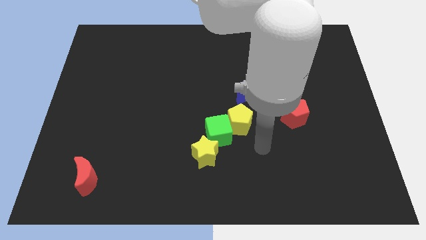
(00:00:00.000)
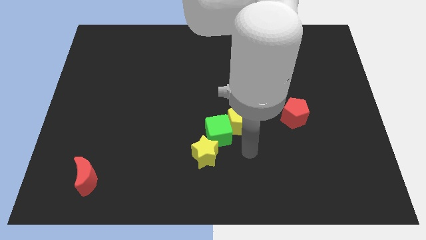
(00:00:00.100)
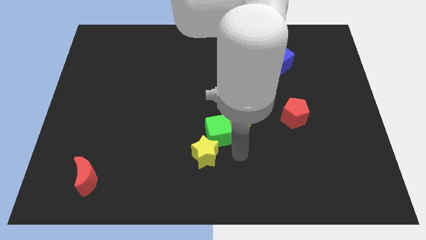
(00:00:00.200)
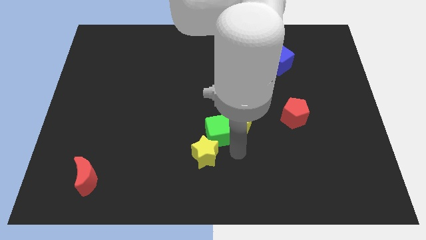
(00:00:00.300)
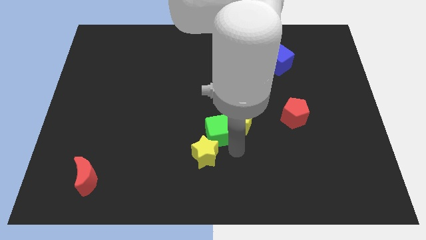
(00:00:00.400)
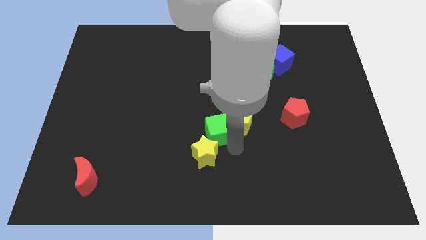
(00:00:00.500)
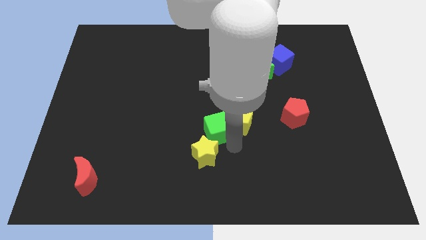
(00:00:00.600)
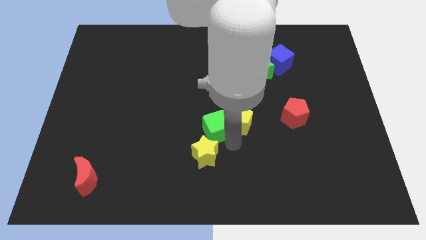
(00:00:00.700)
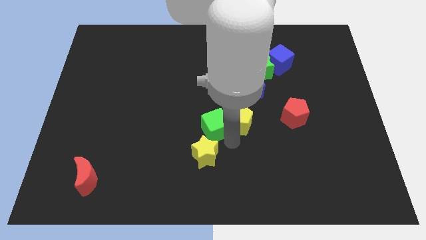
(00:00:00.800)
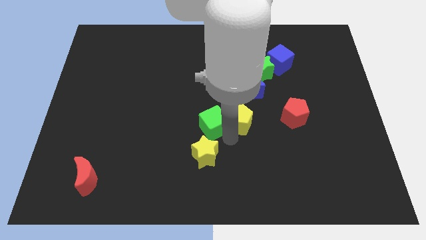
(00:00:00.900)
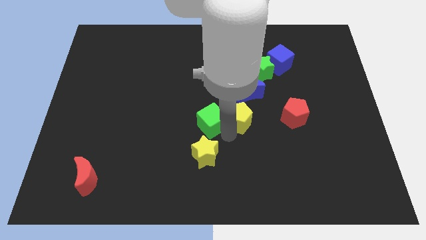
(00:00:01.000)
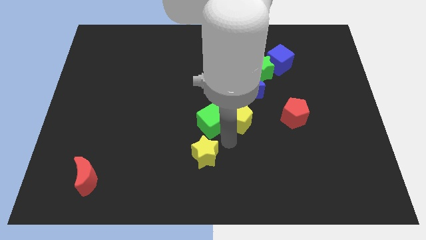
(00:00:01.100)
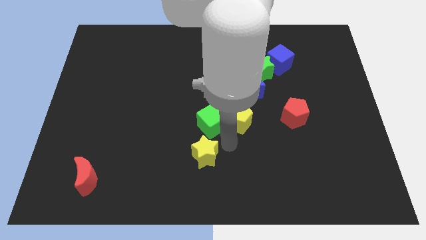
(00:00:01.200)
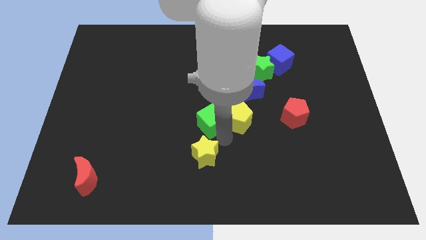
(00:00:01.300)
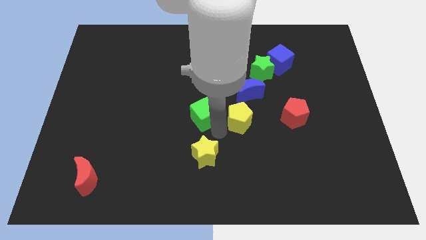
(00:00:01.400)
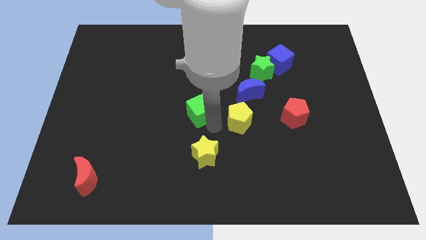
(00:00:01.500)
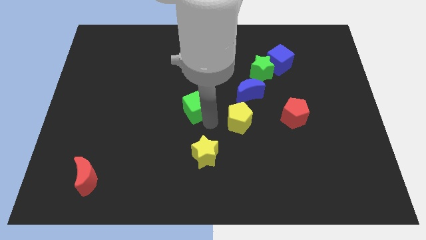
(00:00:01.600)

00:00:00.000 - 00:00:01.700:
move the green cube away from the yellow pentagon and yellow star

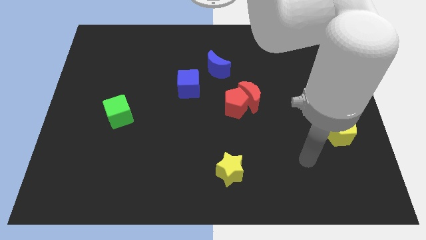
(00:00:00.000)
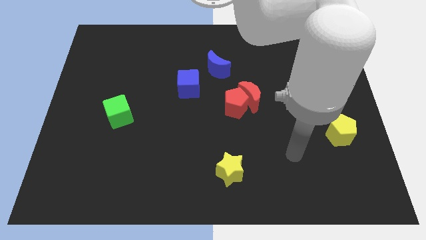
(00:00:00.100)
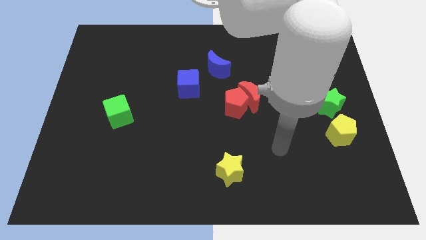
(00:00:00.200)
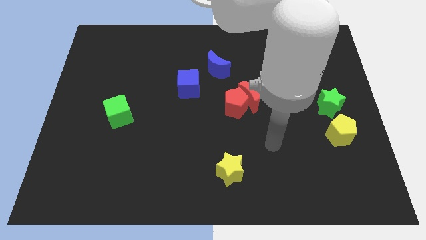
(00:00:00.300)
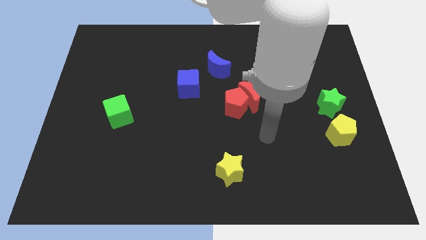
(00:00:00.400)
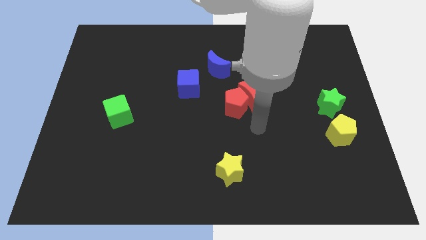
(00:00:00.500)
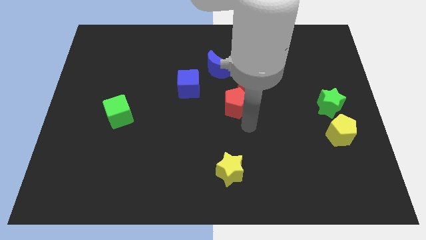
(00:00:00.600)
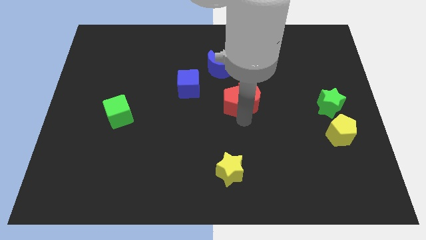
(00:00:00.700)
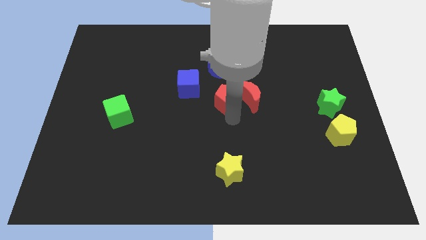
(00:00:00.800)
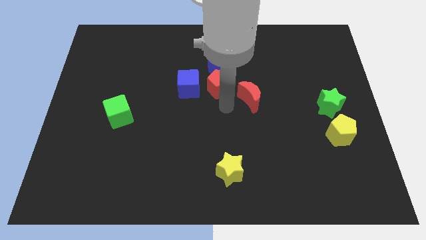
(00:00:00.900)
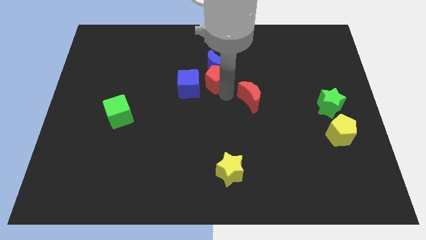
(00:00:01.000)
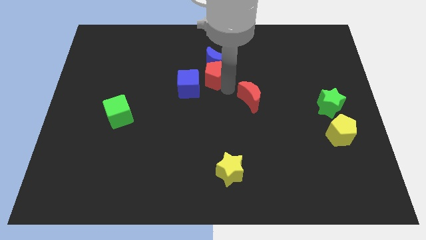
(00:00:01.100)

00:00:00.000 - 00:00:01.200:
separate the red moon from the red pentagon

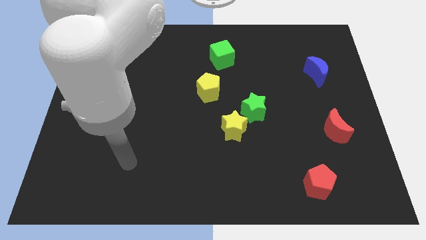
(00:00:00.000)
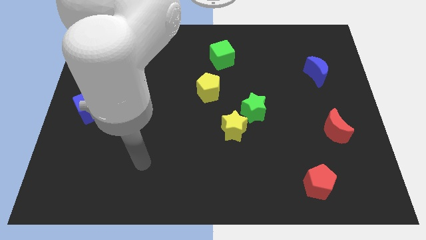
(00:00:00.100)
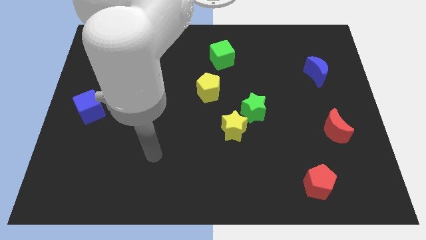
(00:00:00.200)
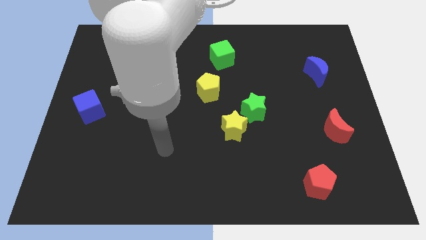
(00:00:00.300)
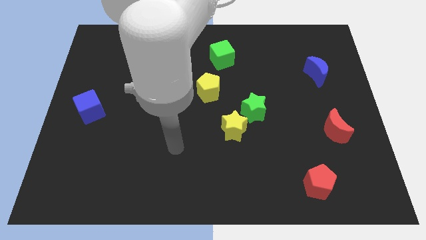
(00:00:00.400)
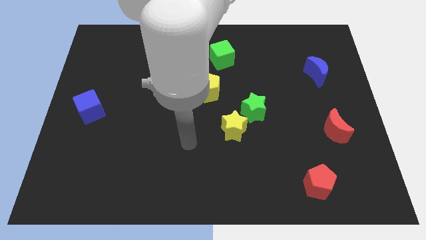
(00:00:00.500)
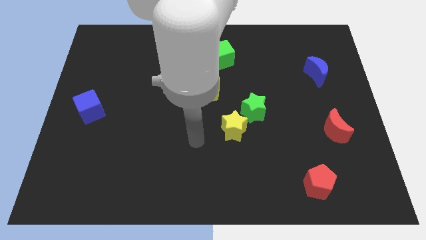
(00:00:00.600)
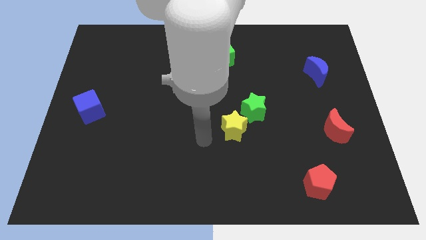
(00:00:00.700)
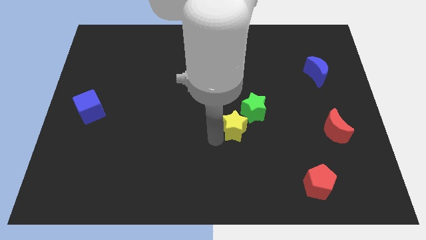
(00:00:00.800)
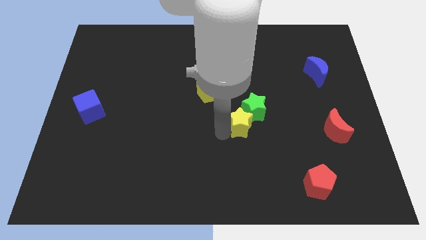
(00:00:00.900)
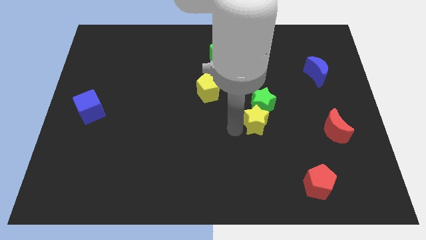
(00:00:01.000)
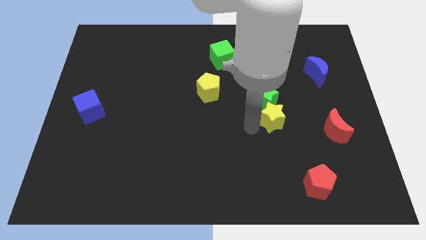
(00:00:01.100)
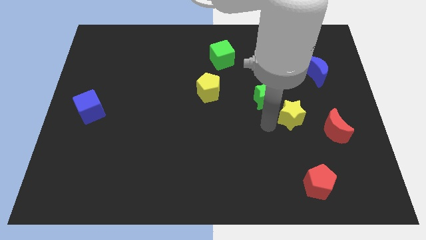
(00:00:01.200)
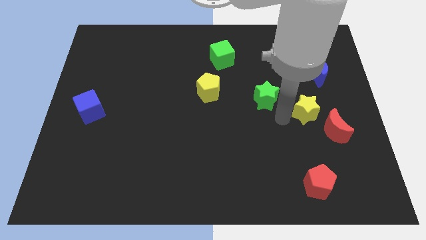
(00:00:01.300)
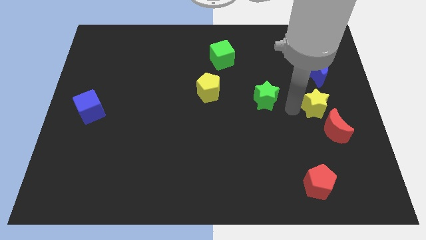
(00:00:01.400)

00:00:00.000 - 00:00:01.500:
separate the green star from the yellow star

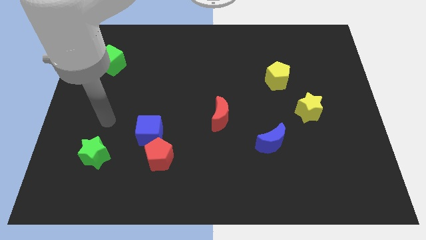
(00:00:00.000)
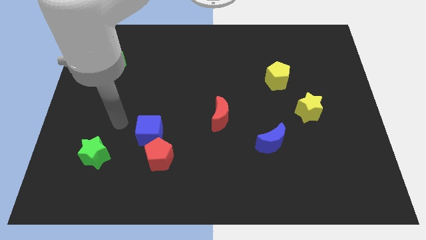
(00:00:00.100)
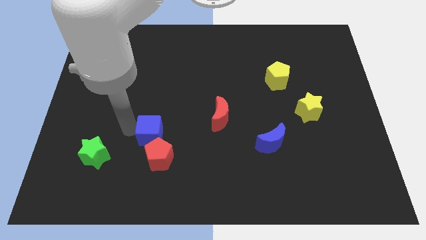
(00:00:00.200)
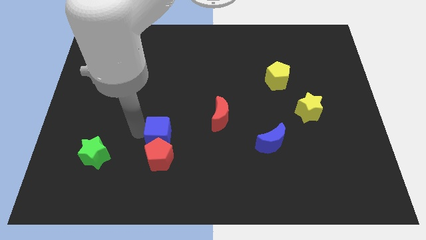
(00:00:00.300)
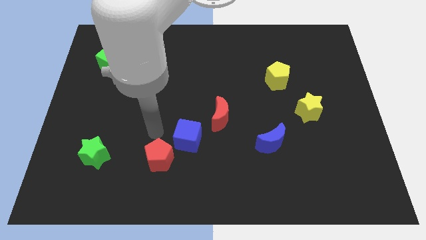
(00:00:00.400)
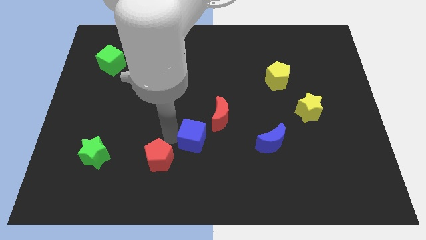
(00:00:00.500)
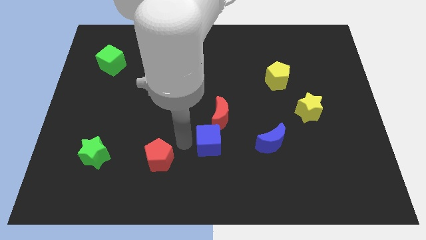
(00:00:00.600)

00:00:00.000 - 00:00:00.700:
separate the red pentagon from the blue cube

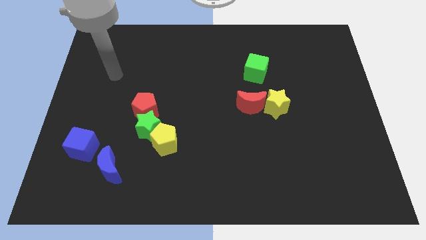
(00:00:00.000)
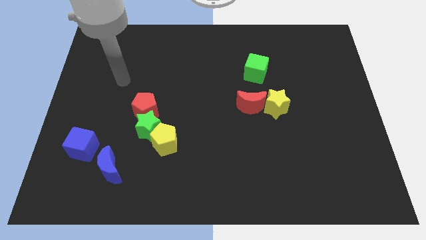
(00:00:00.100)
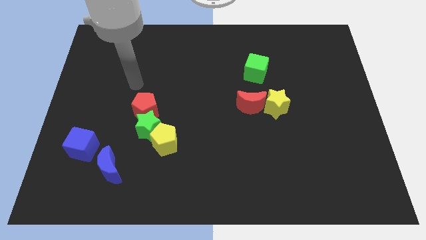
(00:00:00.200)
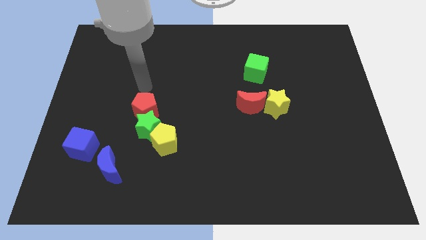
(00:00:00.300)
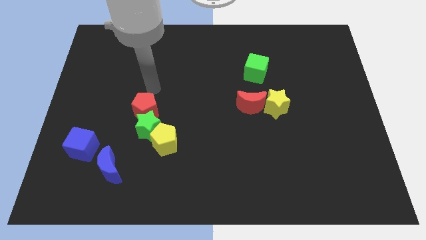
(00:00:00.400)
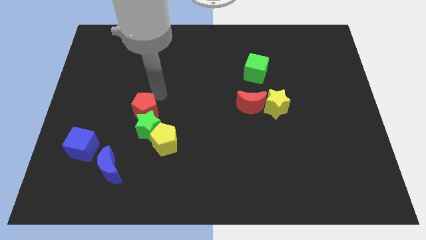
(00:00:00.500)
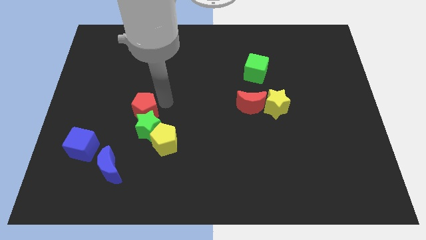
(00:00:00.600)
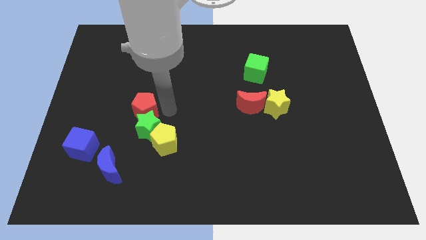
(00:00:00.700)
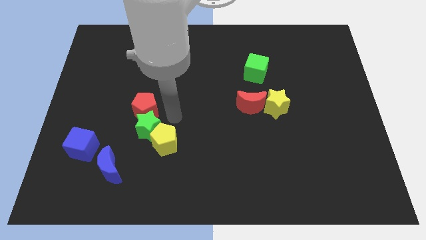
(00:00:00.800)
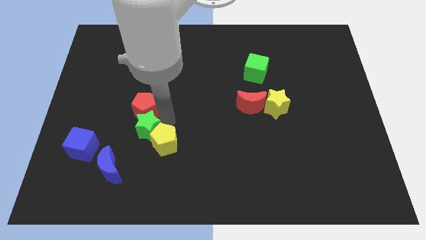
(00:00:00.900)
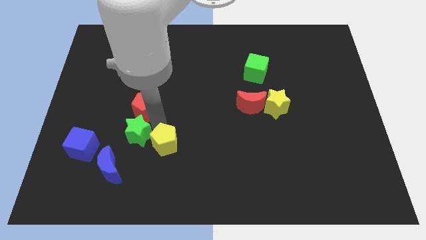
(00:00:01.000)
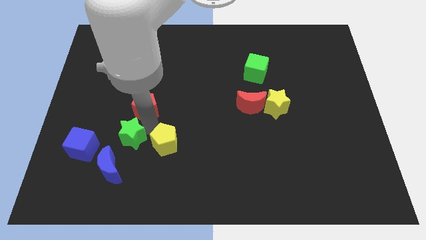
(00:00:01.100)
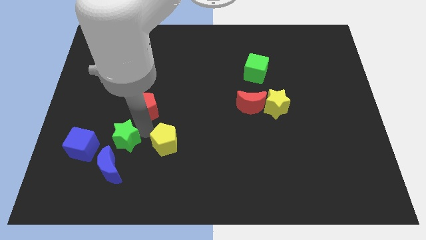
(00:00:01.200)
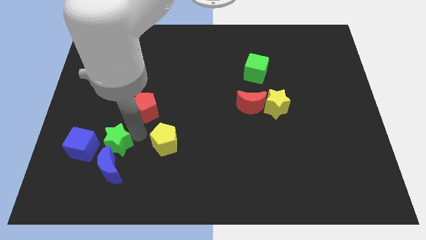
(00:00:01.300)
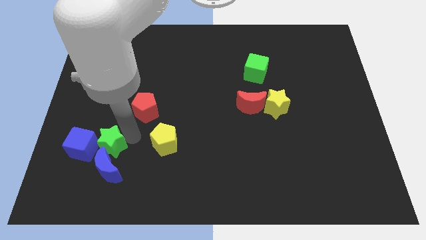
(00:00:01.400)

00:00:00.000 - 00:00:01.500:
pull the green star apart from the yellow pentagon and red pentagon

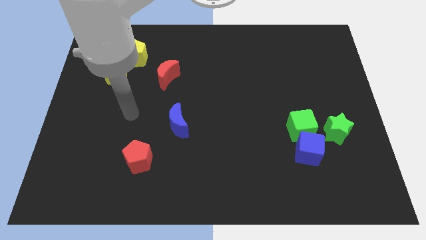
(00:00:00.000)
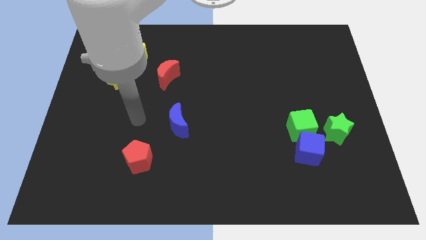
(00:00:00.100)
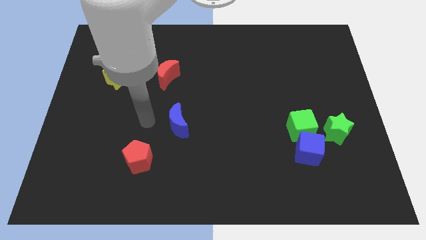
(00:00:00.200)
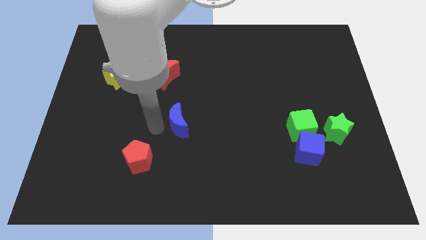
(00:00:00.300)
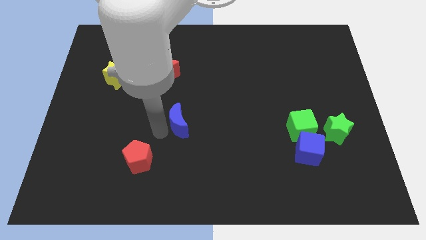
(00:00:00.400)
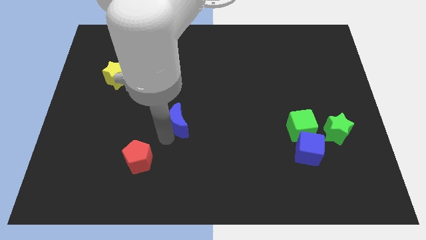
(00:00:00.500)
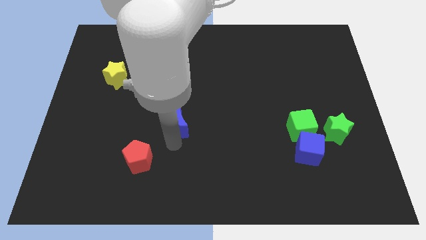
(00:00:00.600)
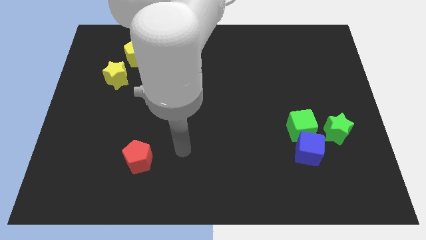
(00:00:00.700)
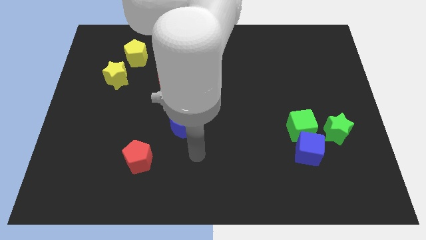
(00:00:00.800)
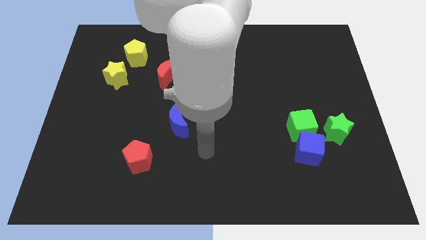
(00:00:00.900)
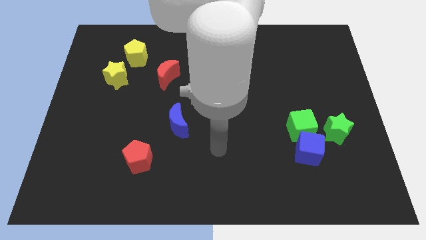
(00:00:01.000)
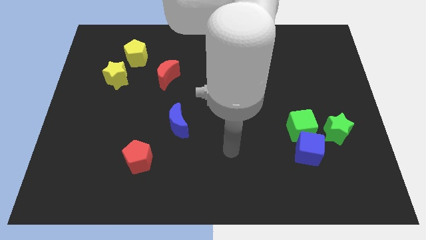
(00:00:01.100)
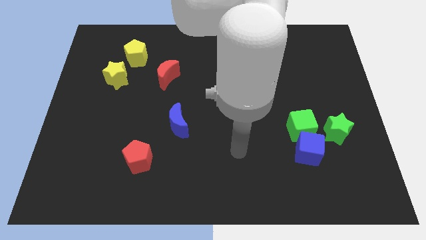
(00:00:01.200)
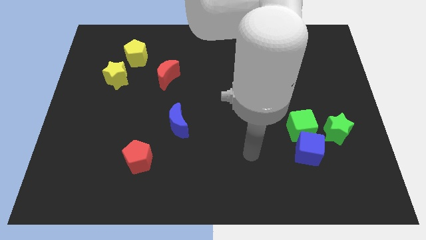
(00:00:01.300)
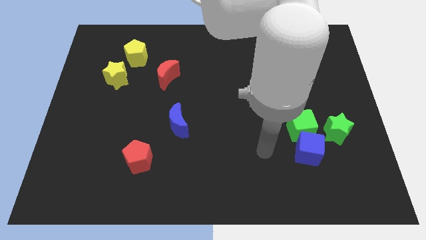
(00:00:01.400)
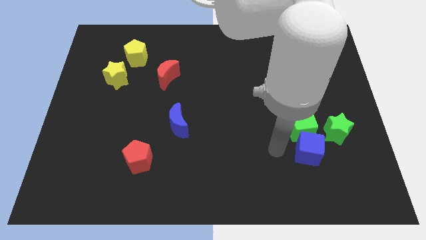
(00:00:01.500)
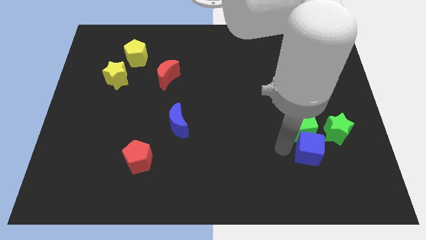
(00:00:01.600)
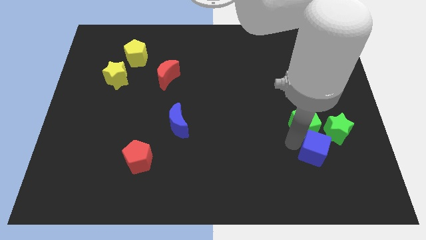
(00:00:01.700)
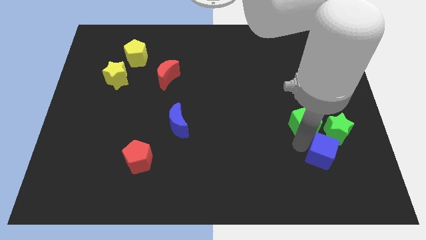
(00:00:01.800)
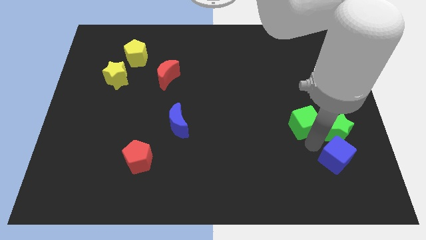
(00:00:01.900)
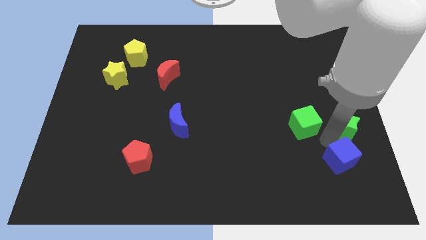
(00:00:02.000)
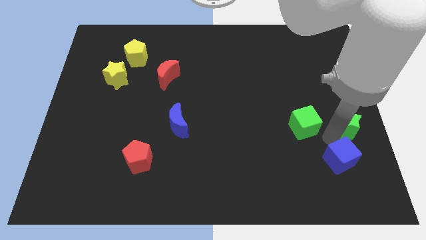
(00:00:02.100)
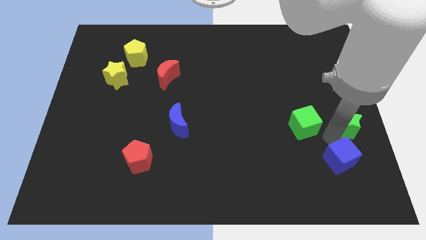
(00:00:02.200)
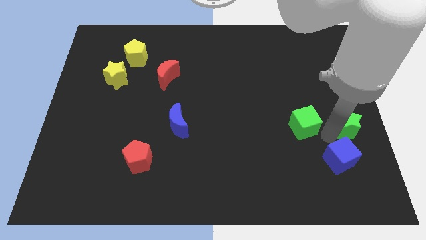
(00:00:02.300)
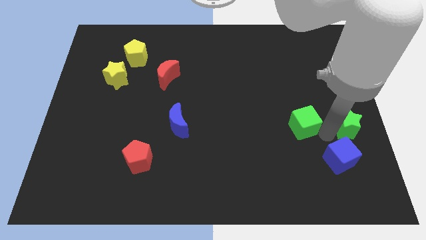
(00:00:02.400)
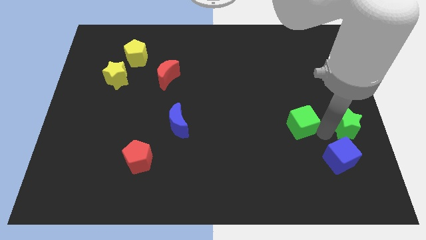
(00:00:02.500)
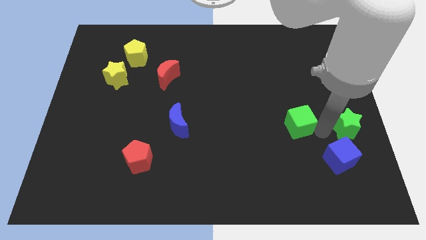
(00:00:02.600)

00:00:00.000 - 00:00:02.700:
move the green cube away from the blue cube and green star
